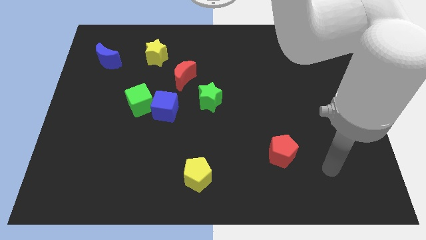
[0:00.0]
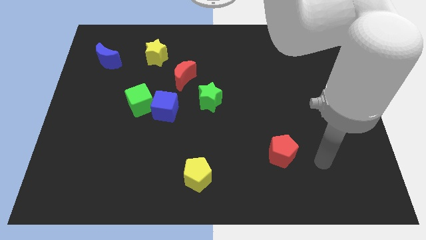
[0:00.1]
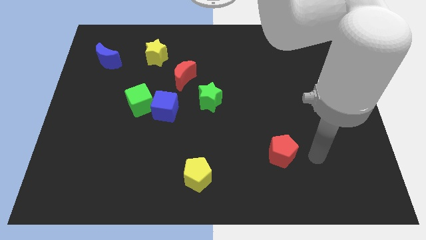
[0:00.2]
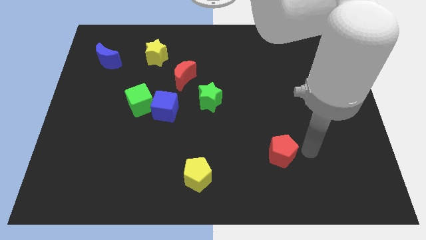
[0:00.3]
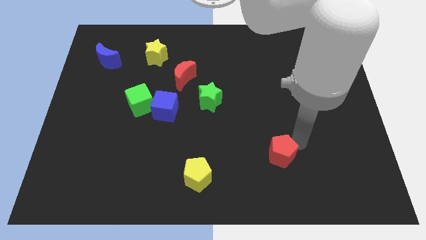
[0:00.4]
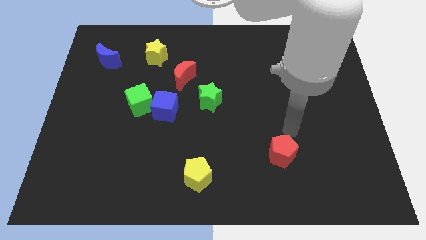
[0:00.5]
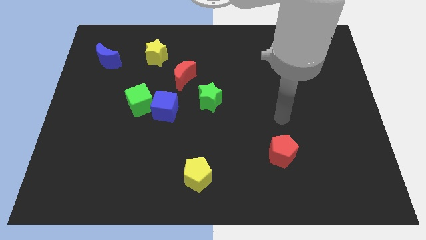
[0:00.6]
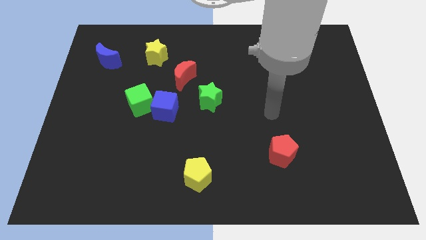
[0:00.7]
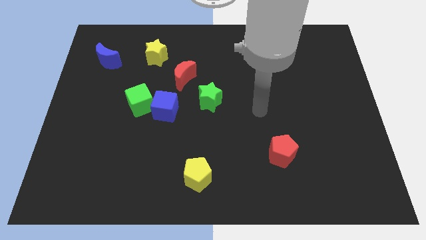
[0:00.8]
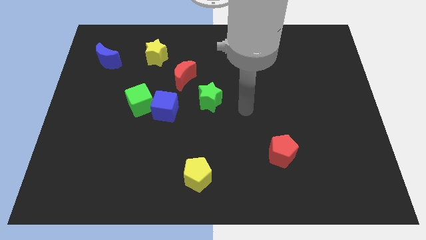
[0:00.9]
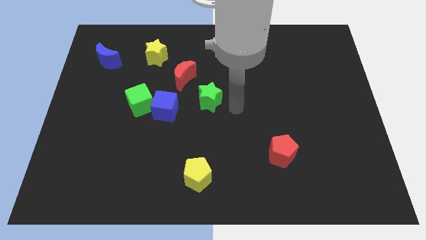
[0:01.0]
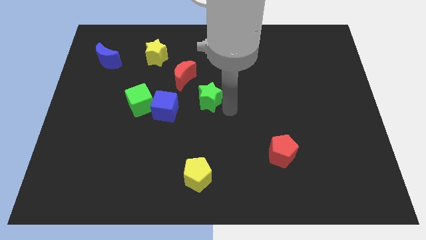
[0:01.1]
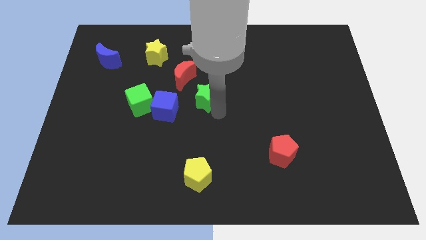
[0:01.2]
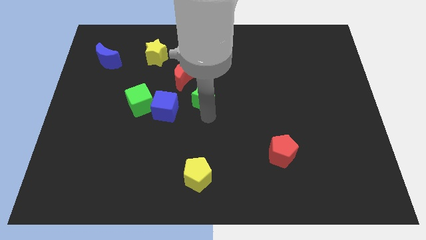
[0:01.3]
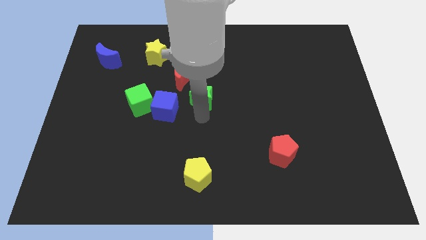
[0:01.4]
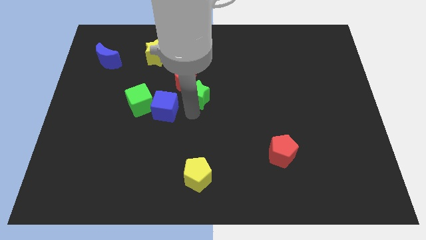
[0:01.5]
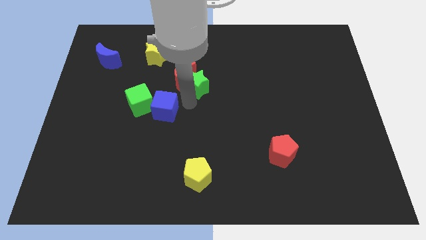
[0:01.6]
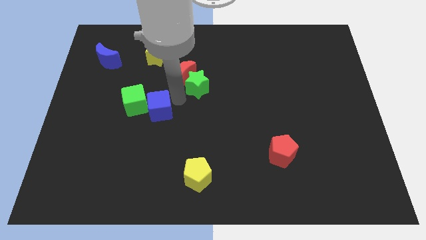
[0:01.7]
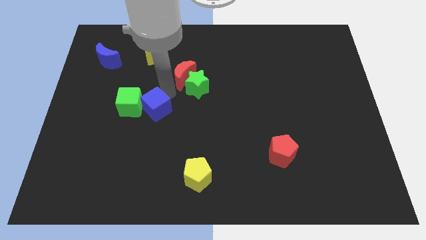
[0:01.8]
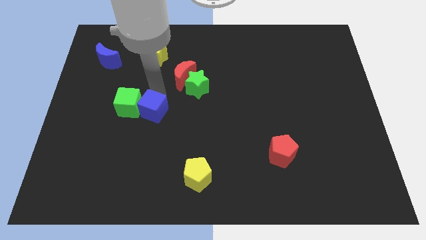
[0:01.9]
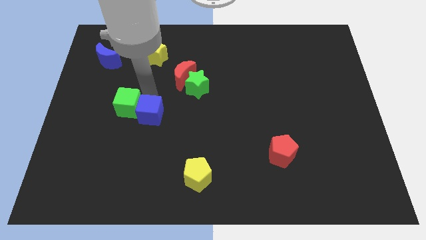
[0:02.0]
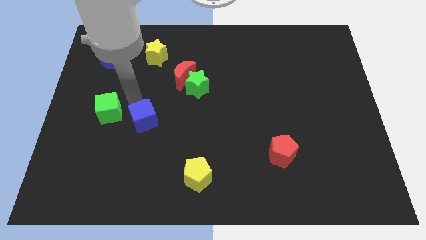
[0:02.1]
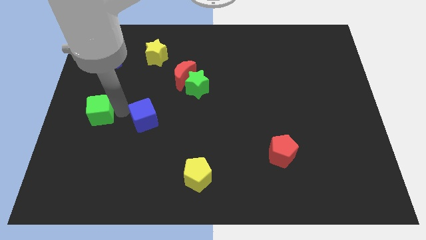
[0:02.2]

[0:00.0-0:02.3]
pull the blue cube apart from the green cube

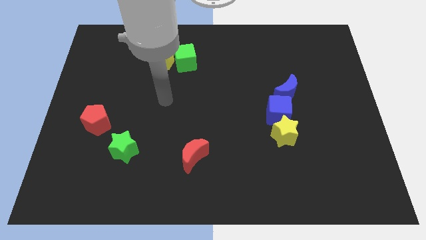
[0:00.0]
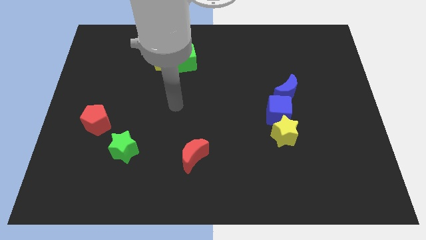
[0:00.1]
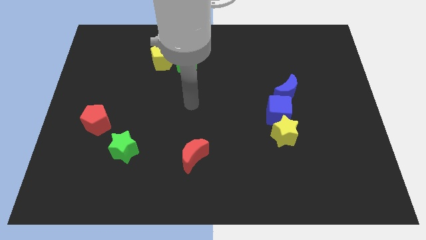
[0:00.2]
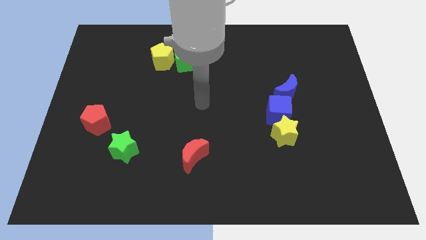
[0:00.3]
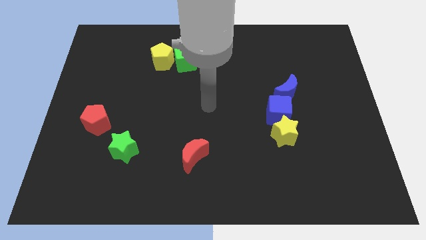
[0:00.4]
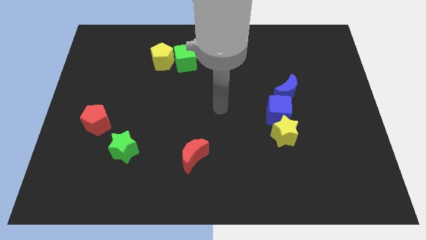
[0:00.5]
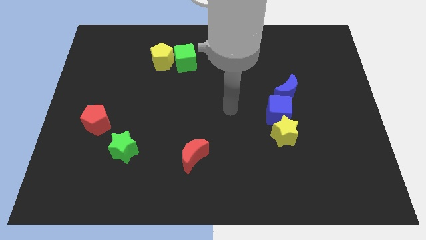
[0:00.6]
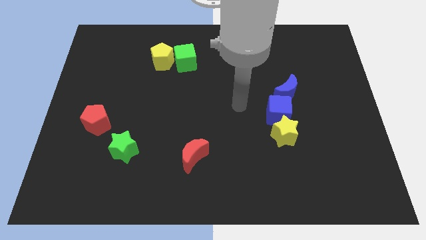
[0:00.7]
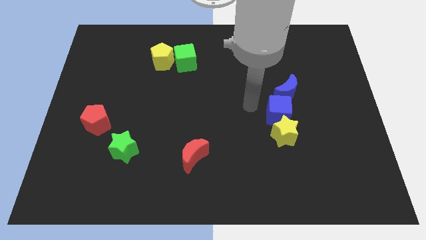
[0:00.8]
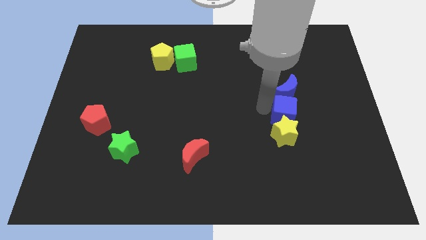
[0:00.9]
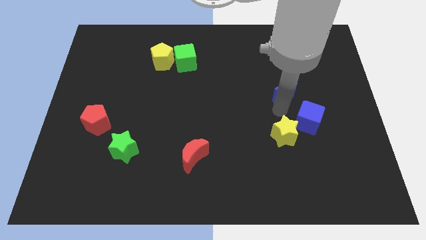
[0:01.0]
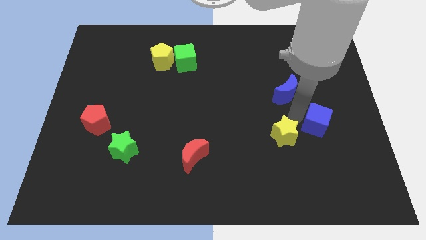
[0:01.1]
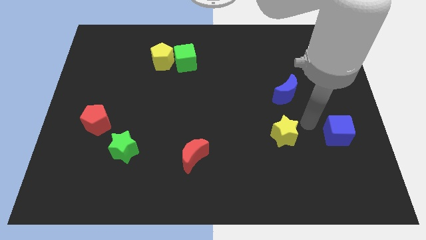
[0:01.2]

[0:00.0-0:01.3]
move the yellow star away from the blue cube

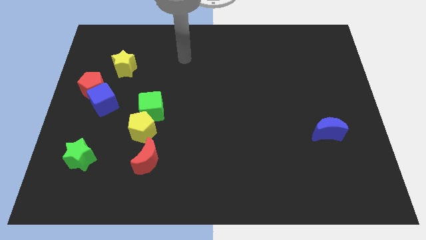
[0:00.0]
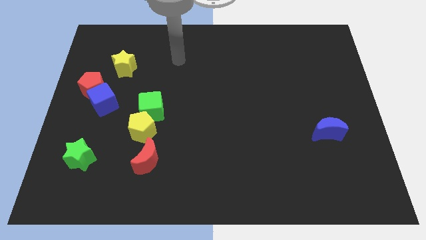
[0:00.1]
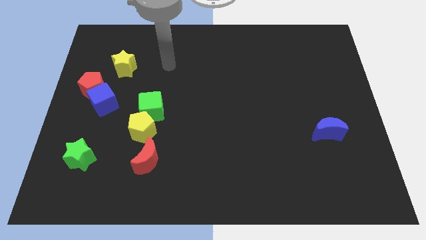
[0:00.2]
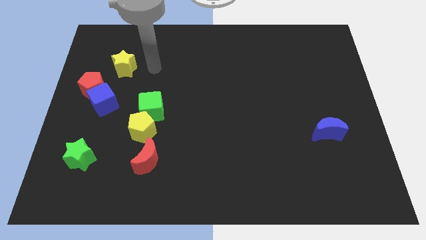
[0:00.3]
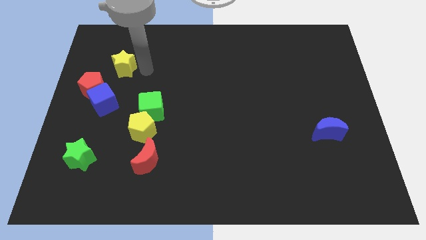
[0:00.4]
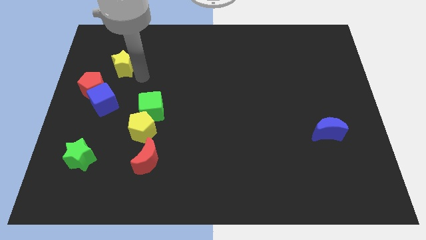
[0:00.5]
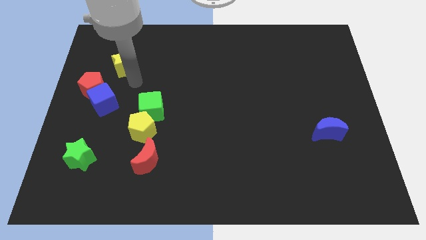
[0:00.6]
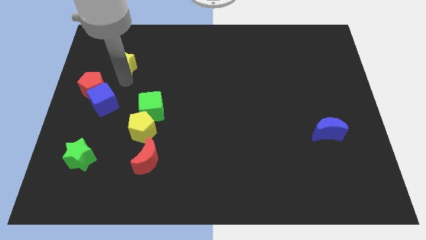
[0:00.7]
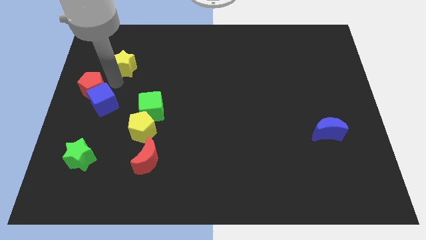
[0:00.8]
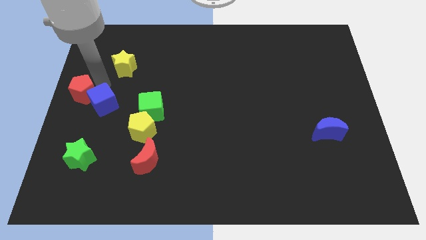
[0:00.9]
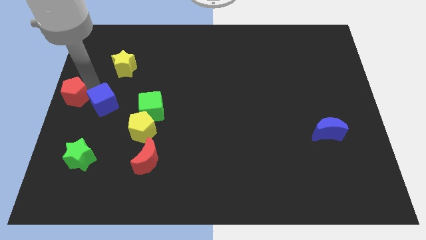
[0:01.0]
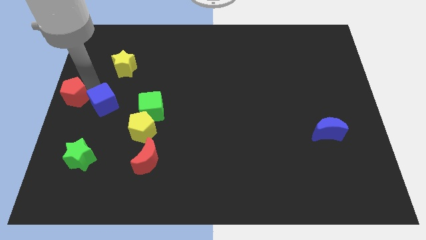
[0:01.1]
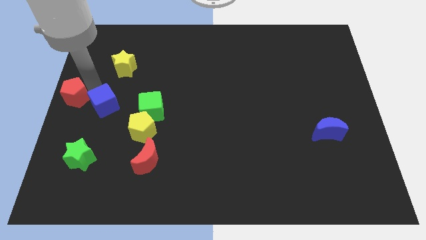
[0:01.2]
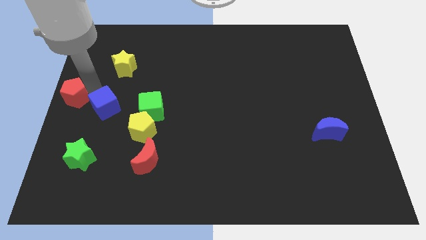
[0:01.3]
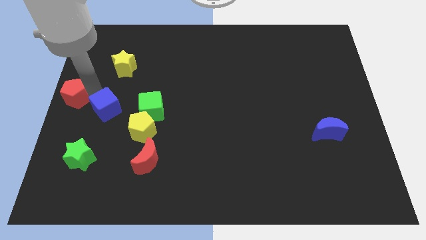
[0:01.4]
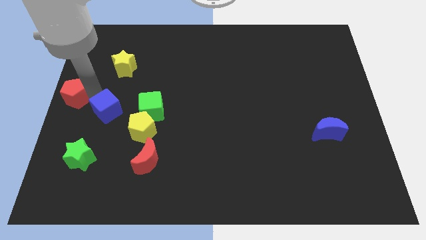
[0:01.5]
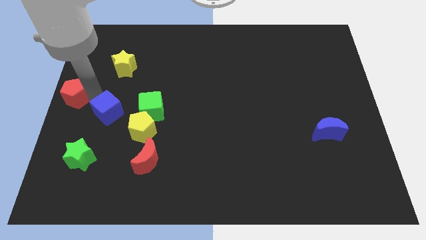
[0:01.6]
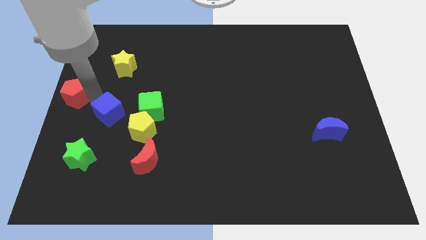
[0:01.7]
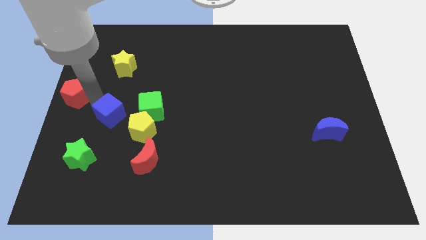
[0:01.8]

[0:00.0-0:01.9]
pull the blue cube apart from the red pentagon

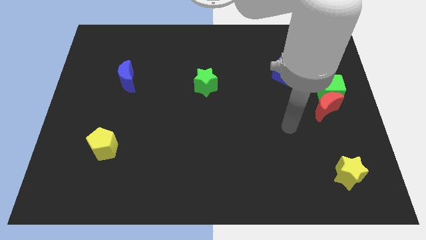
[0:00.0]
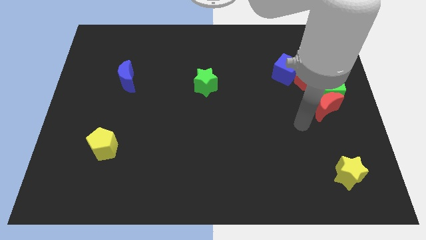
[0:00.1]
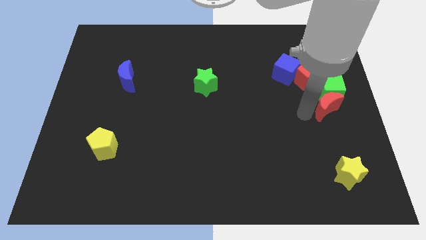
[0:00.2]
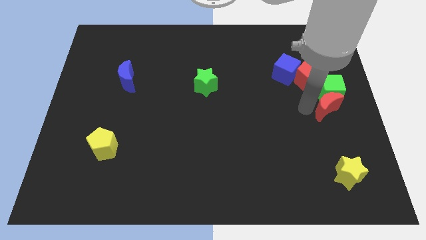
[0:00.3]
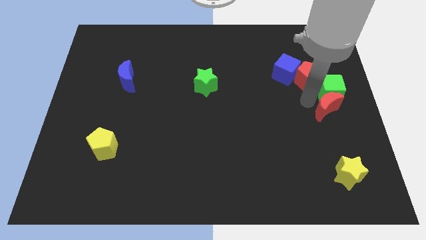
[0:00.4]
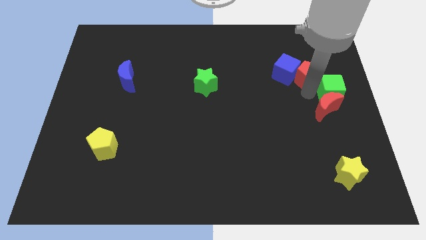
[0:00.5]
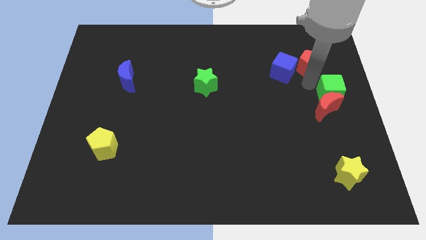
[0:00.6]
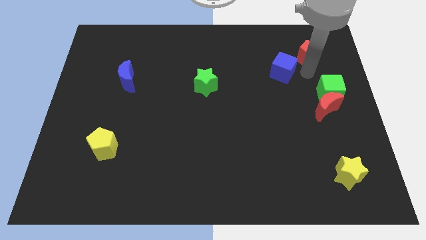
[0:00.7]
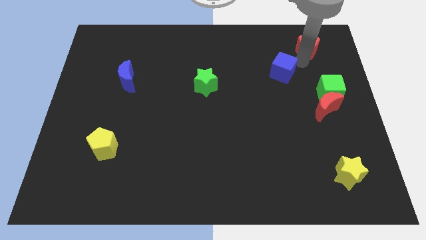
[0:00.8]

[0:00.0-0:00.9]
separate the blue cube from the red pentagon

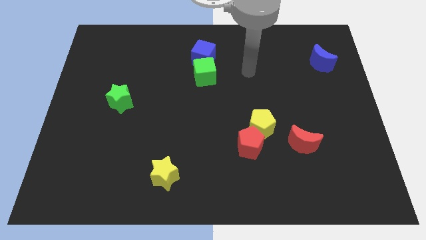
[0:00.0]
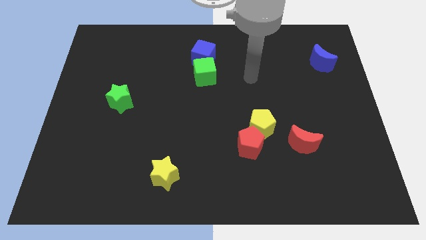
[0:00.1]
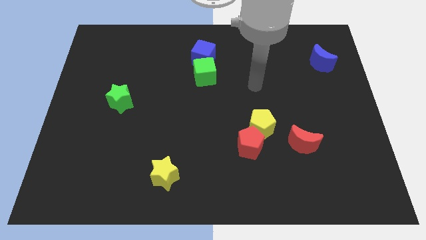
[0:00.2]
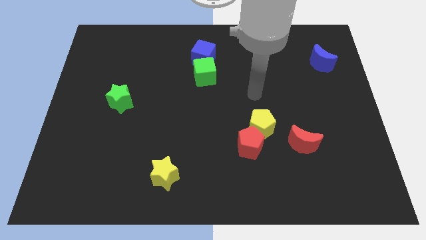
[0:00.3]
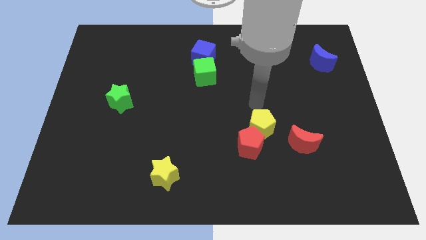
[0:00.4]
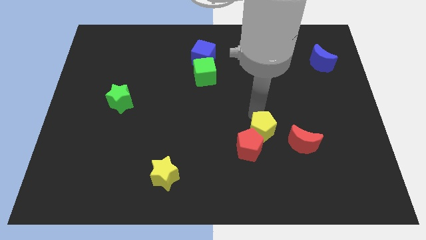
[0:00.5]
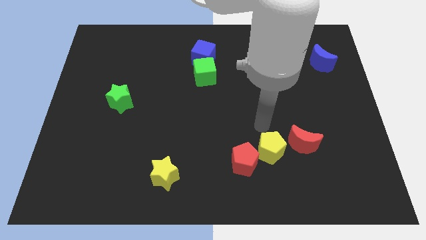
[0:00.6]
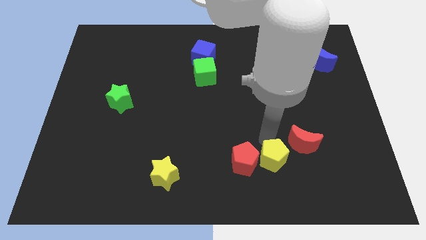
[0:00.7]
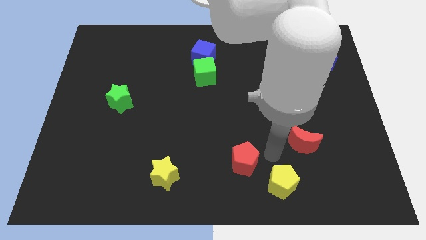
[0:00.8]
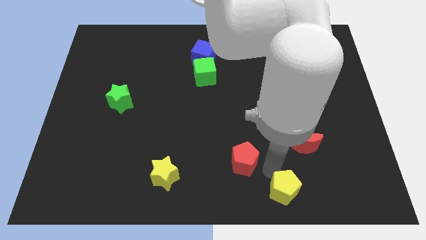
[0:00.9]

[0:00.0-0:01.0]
move the red pentagon away from the yellow pentagon

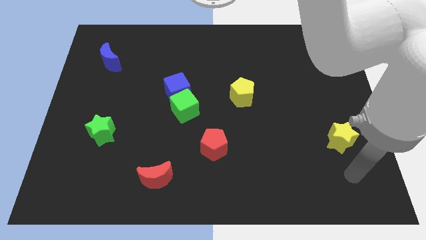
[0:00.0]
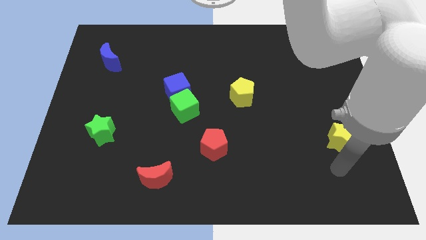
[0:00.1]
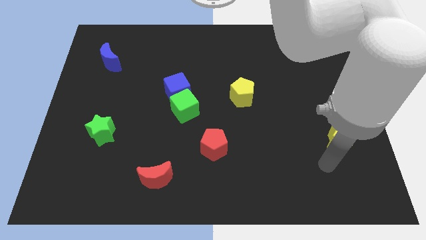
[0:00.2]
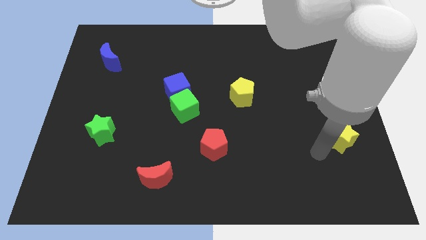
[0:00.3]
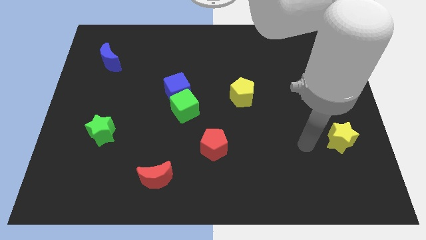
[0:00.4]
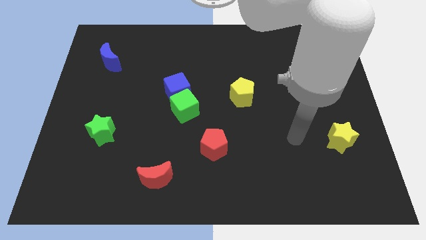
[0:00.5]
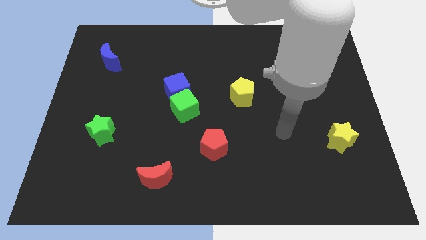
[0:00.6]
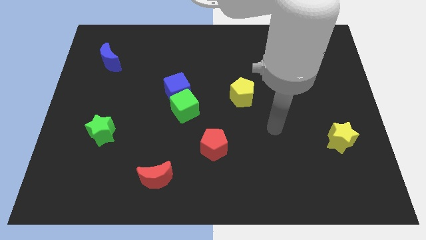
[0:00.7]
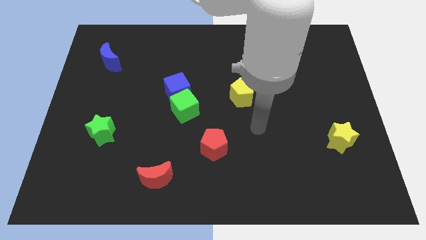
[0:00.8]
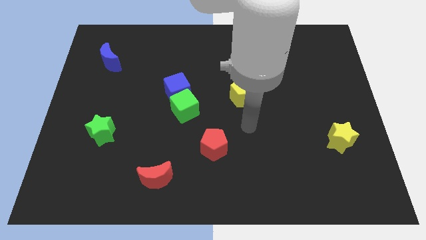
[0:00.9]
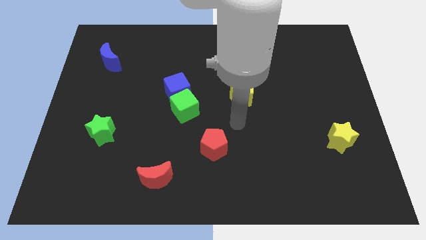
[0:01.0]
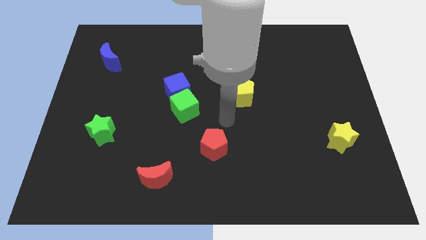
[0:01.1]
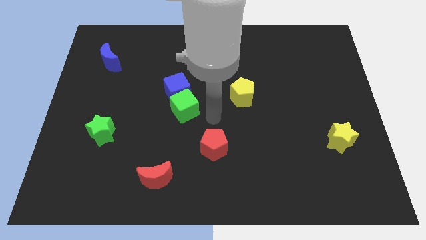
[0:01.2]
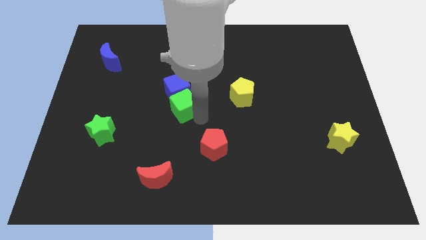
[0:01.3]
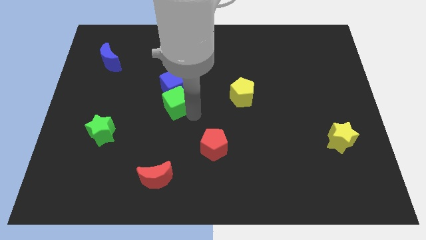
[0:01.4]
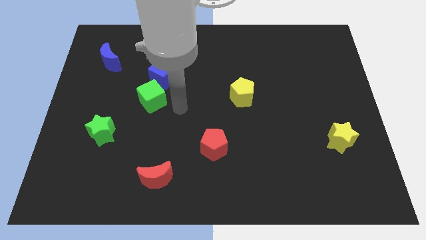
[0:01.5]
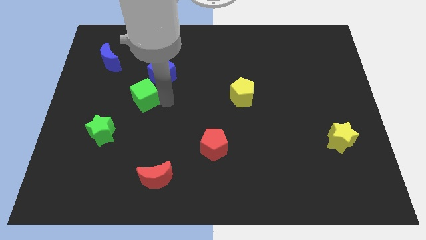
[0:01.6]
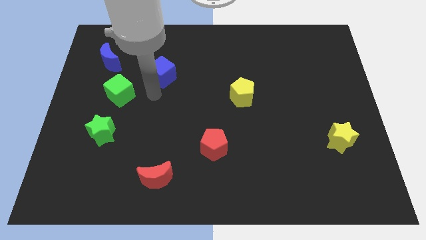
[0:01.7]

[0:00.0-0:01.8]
separate the blue cube from the green cube

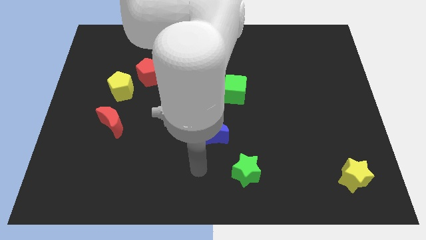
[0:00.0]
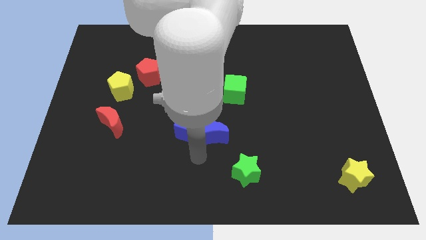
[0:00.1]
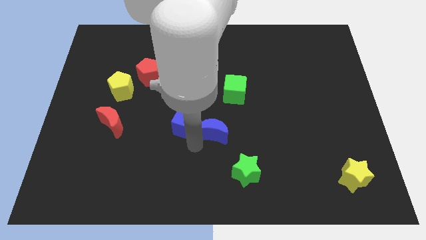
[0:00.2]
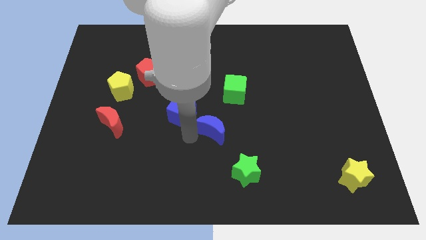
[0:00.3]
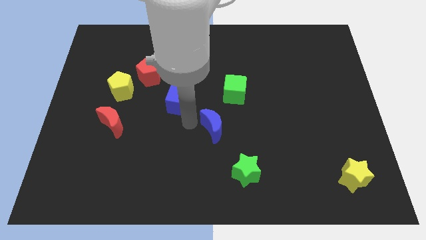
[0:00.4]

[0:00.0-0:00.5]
pull the blue moon apart from the blue cube
